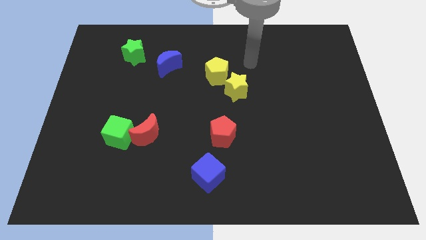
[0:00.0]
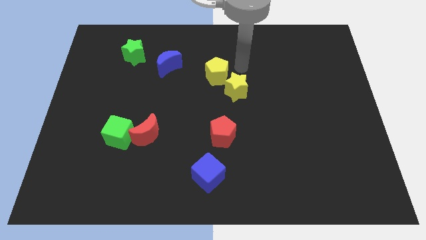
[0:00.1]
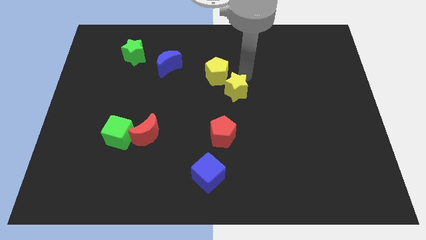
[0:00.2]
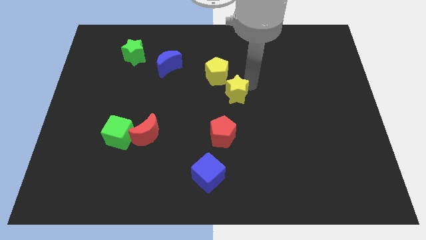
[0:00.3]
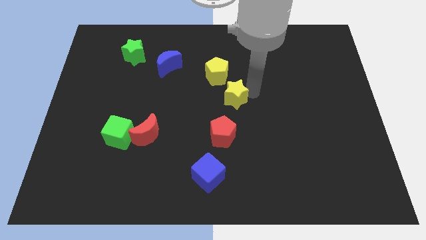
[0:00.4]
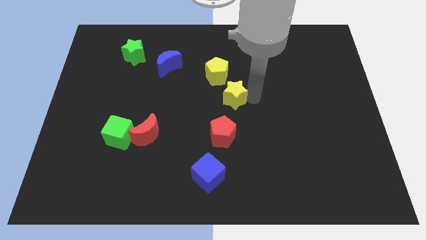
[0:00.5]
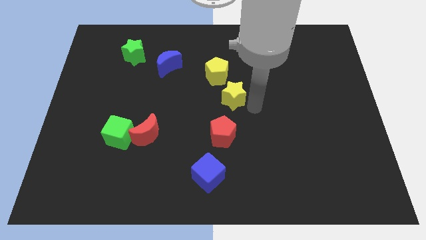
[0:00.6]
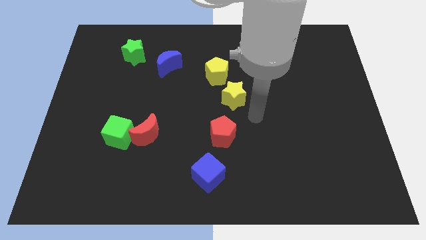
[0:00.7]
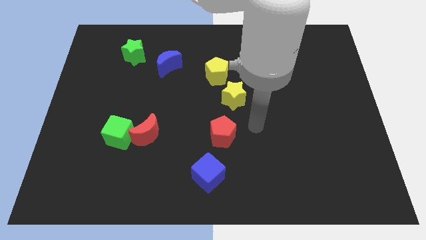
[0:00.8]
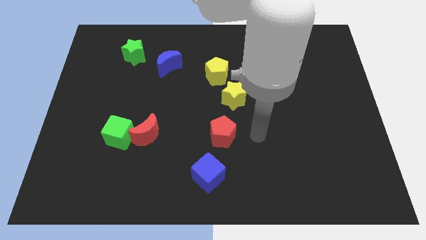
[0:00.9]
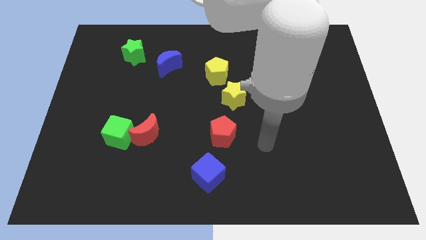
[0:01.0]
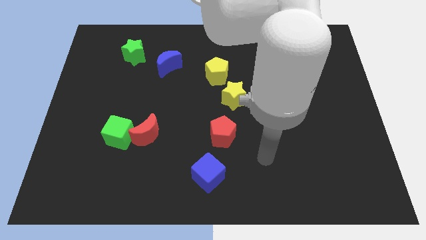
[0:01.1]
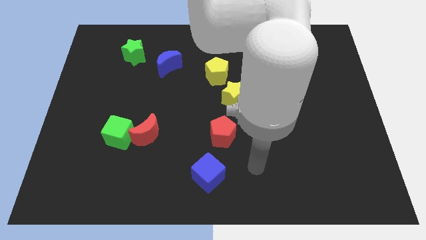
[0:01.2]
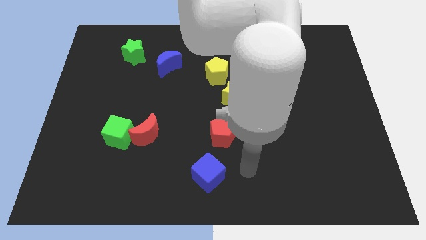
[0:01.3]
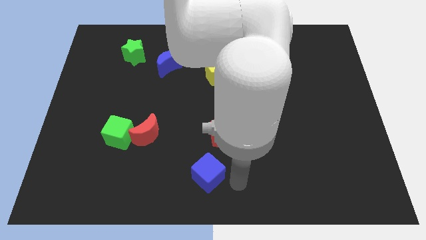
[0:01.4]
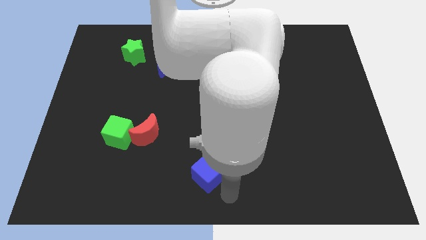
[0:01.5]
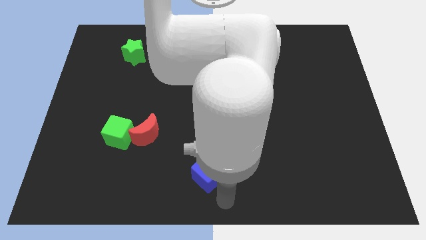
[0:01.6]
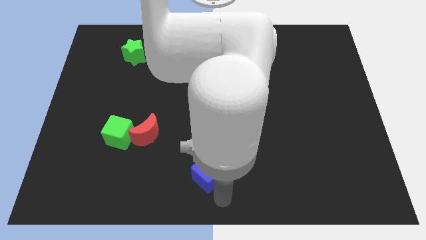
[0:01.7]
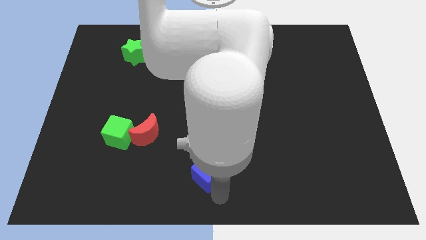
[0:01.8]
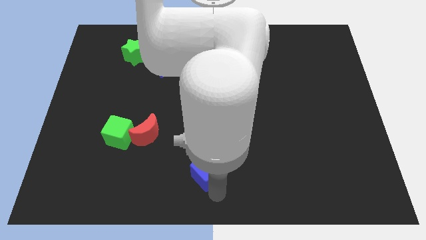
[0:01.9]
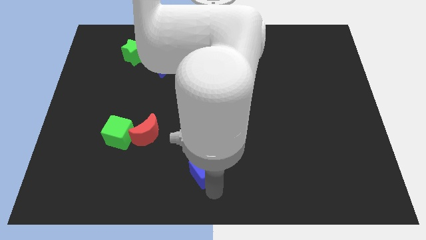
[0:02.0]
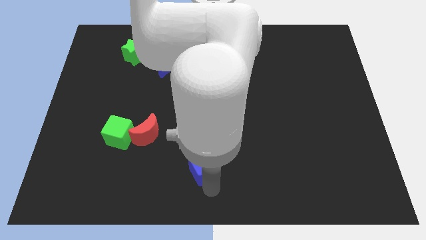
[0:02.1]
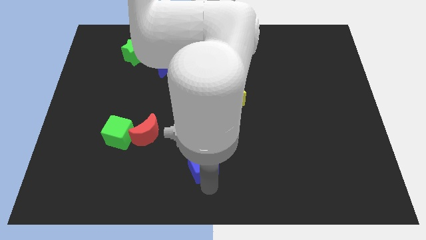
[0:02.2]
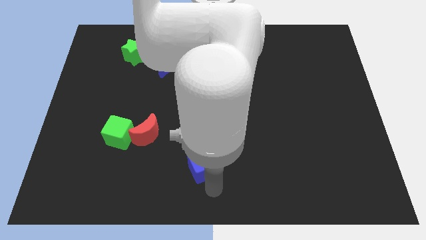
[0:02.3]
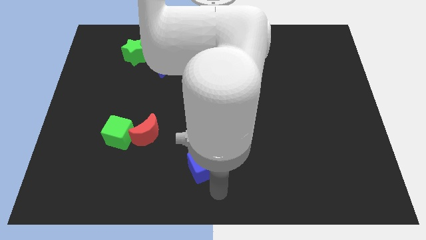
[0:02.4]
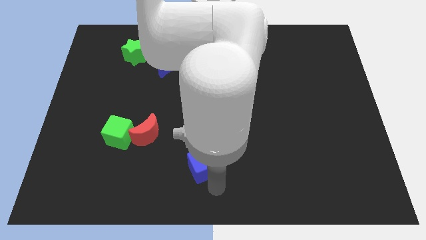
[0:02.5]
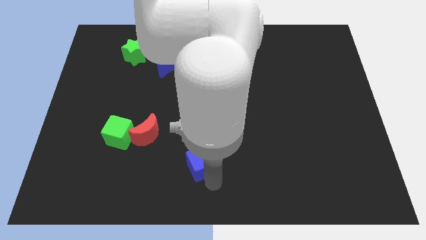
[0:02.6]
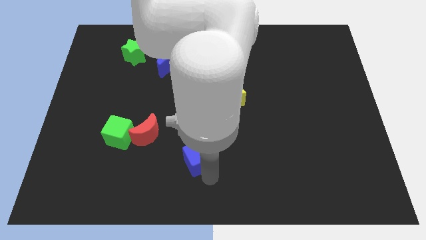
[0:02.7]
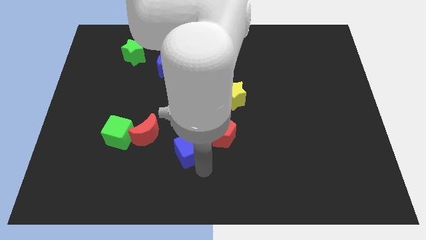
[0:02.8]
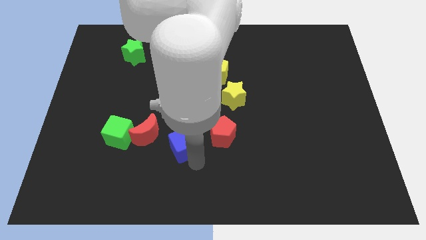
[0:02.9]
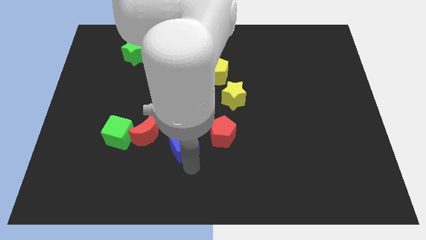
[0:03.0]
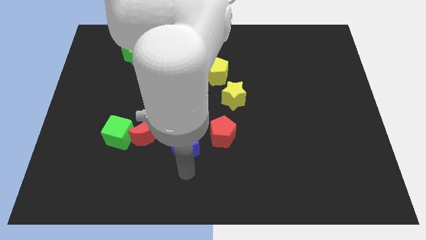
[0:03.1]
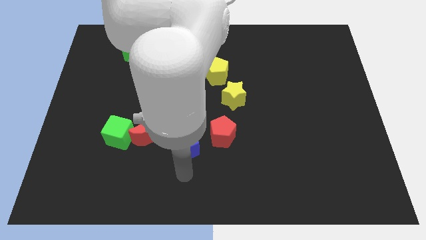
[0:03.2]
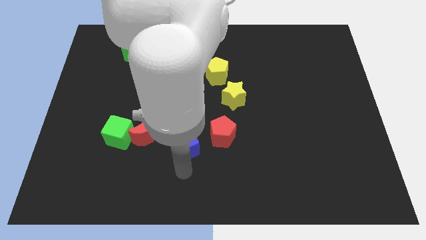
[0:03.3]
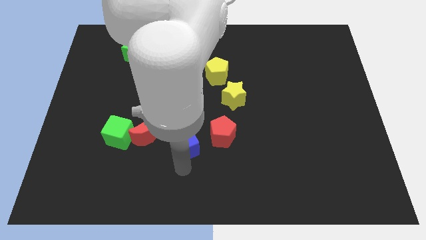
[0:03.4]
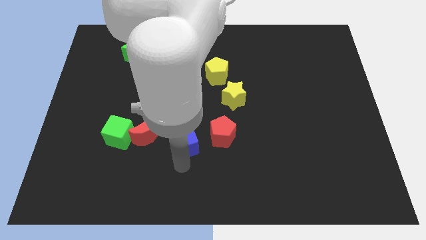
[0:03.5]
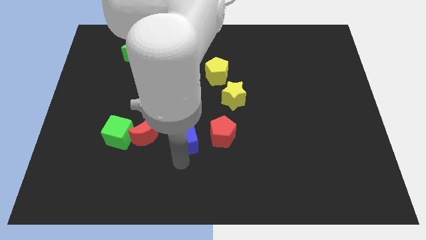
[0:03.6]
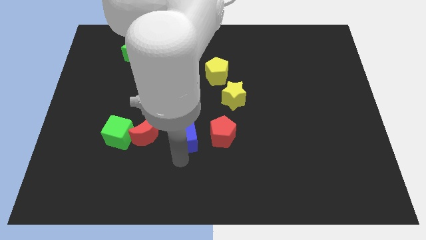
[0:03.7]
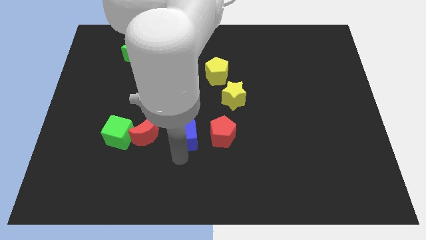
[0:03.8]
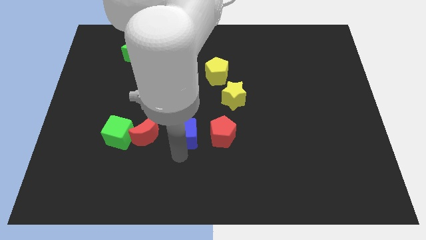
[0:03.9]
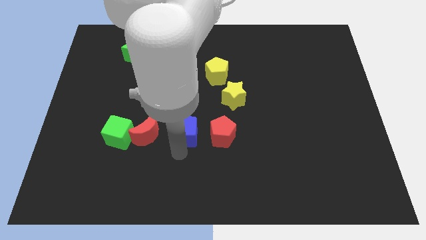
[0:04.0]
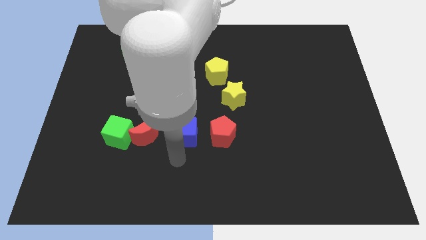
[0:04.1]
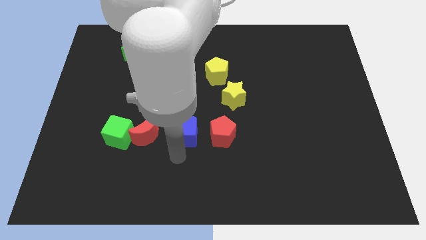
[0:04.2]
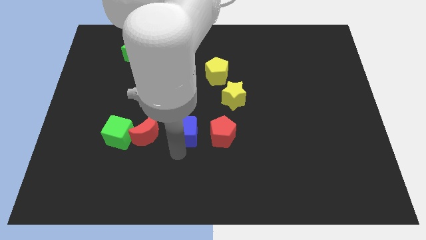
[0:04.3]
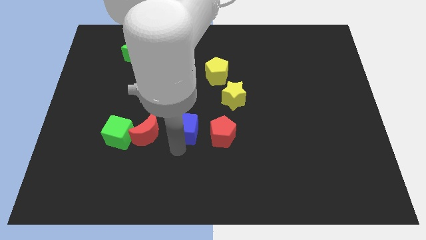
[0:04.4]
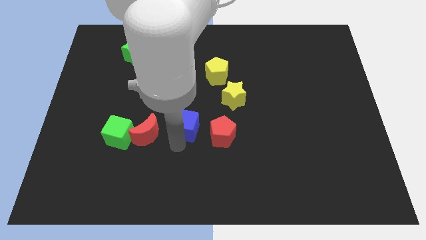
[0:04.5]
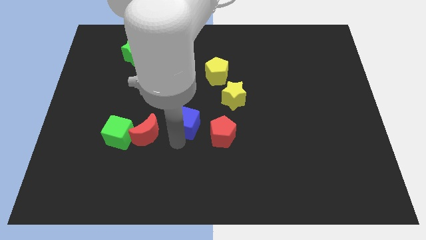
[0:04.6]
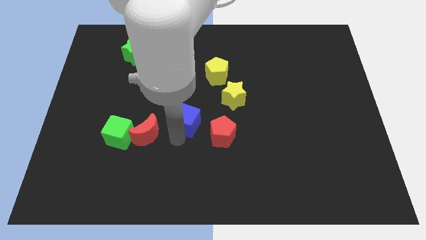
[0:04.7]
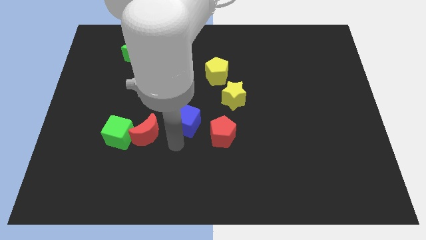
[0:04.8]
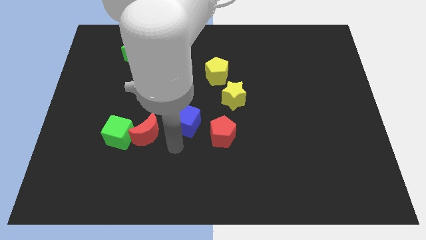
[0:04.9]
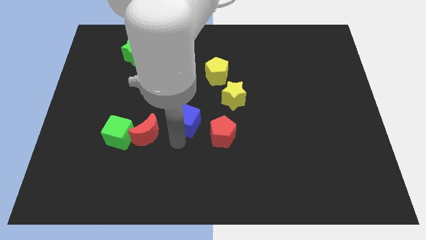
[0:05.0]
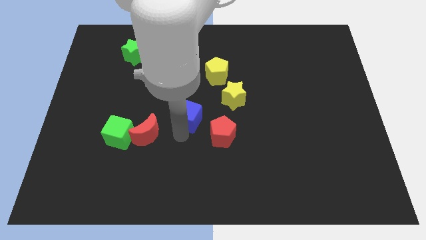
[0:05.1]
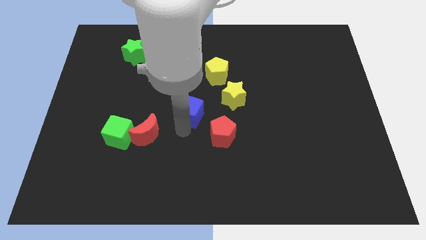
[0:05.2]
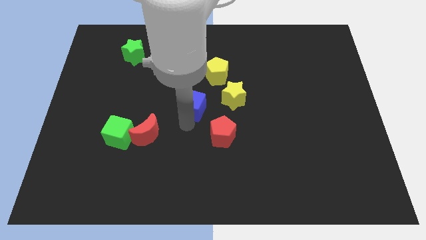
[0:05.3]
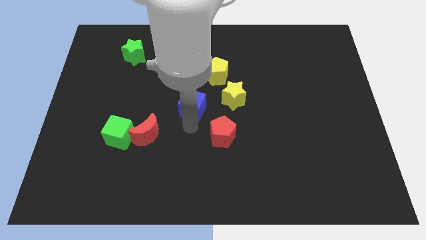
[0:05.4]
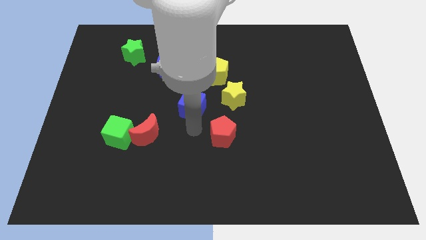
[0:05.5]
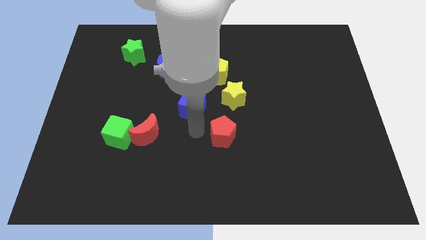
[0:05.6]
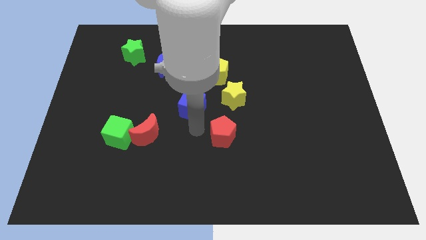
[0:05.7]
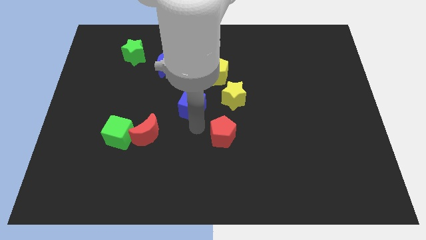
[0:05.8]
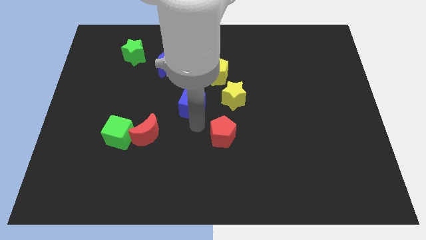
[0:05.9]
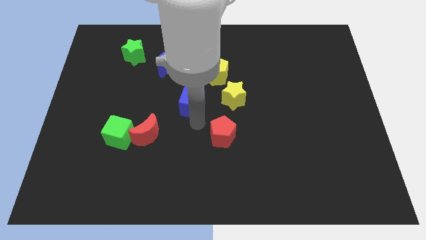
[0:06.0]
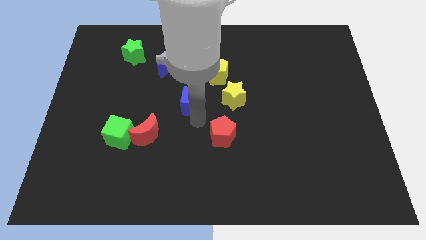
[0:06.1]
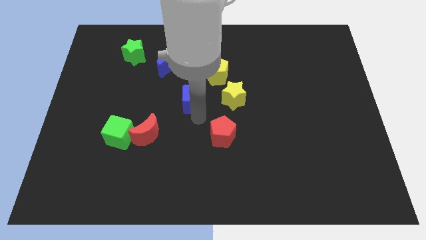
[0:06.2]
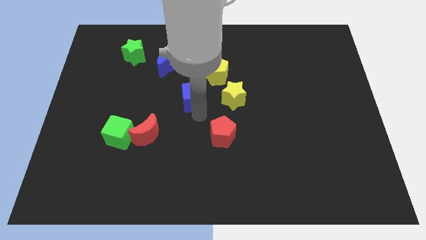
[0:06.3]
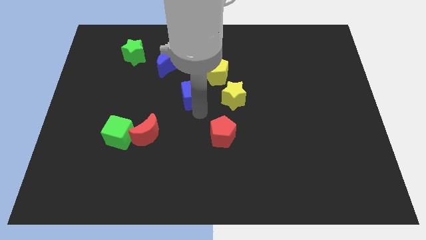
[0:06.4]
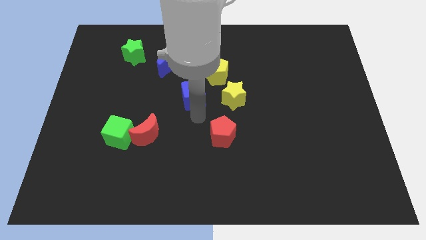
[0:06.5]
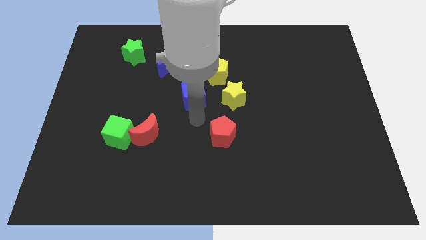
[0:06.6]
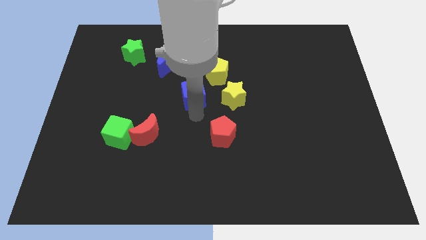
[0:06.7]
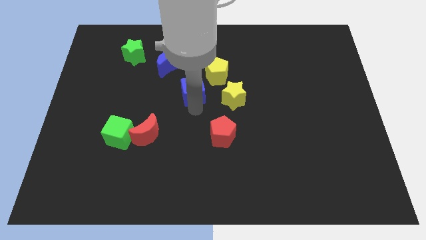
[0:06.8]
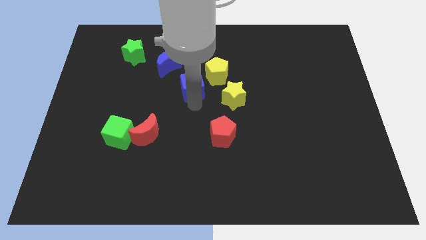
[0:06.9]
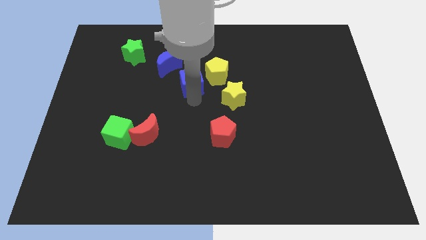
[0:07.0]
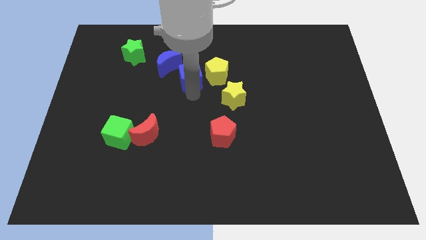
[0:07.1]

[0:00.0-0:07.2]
move the blue cube just right of the blue moon

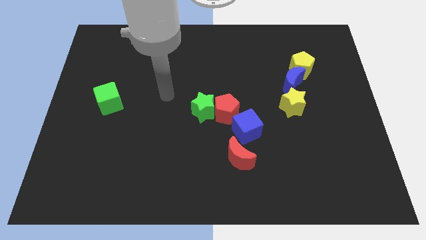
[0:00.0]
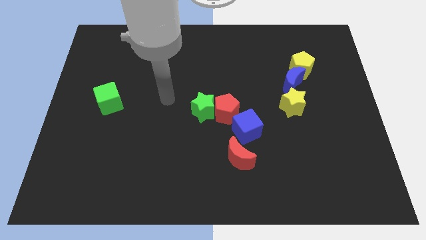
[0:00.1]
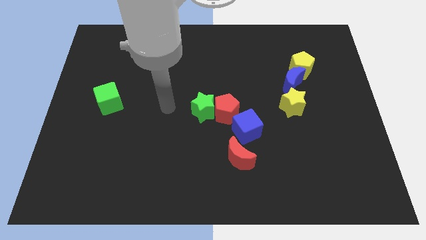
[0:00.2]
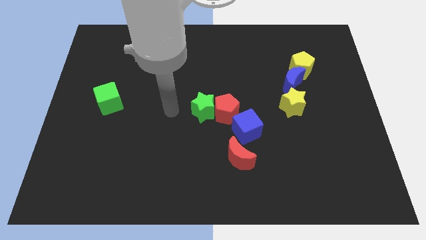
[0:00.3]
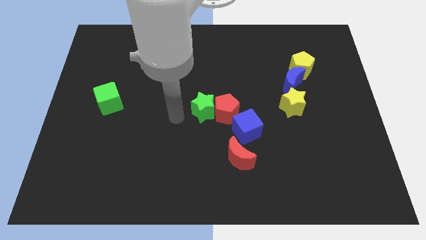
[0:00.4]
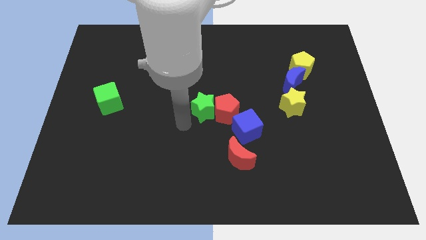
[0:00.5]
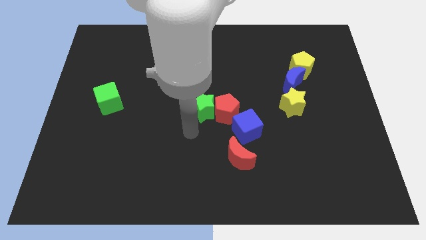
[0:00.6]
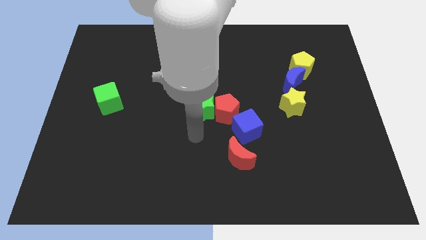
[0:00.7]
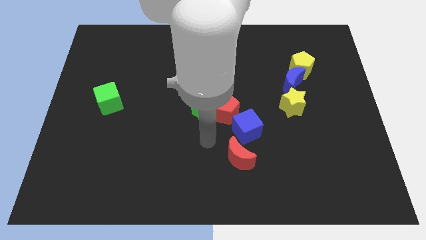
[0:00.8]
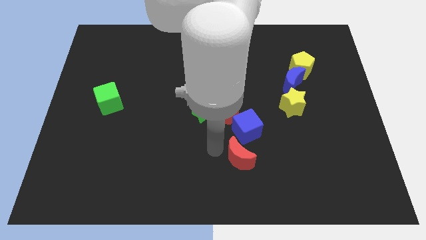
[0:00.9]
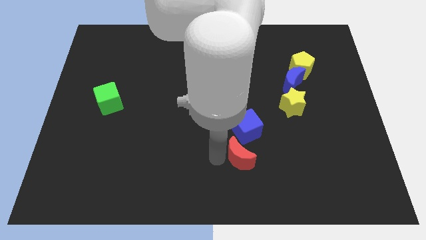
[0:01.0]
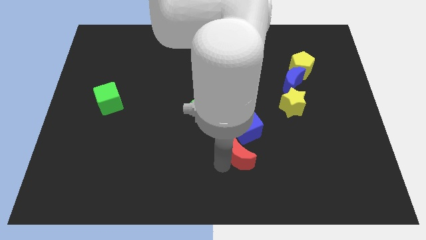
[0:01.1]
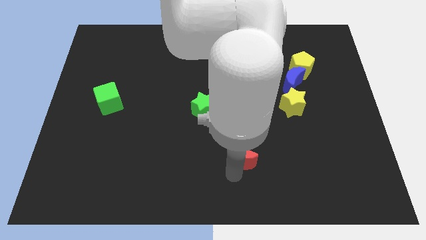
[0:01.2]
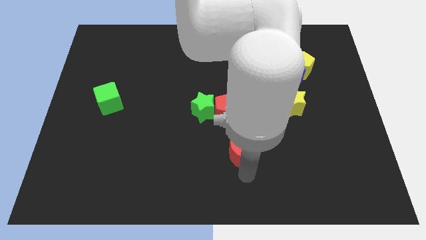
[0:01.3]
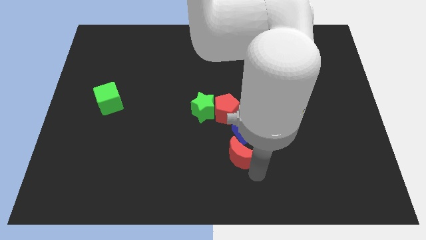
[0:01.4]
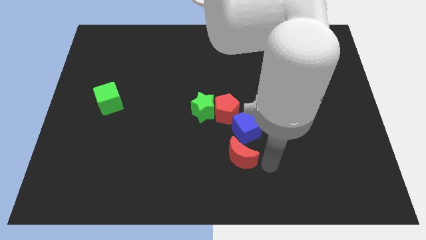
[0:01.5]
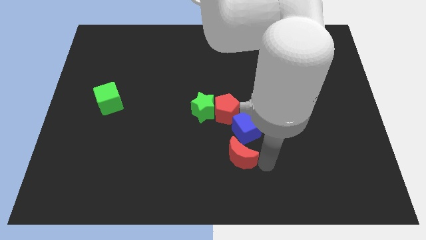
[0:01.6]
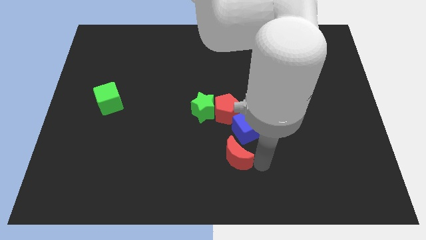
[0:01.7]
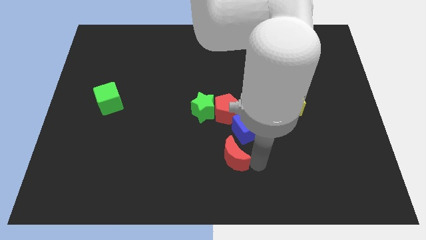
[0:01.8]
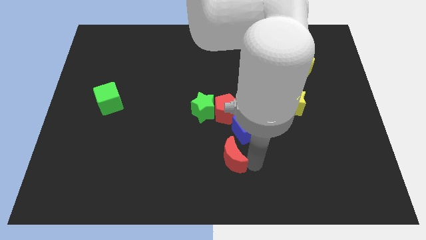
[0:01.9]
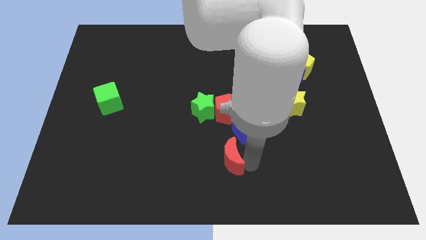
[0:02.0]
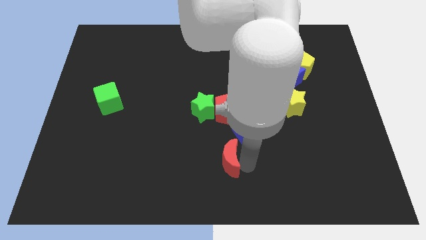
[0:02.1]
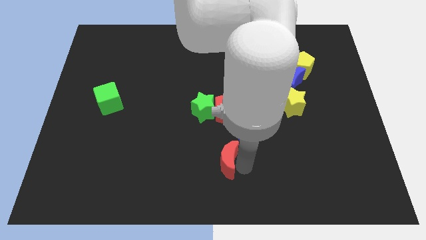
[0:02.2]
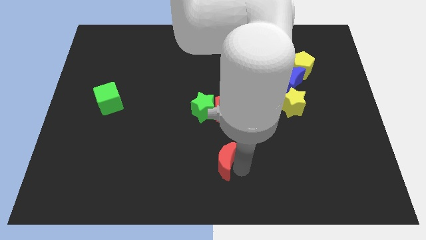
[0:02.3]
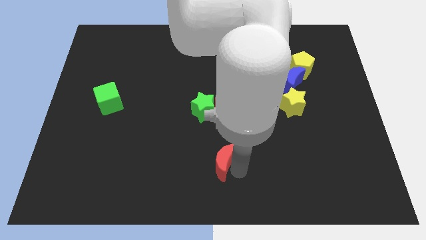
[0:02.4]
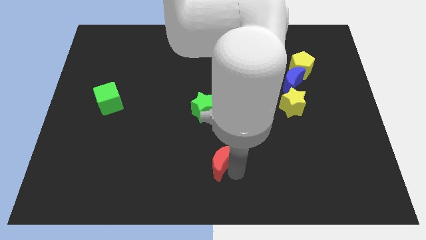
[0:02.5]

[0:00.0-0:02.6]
move the red moon to the bottom side of the green star
